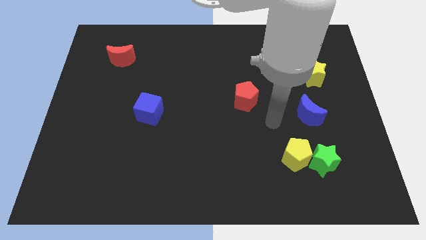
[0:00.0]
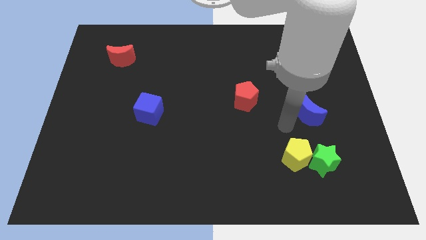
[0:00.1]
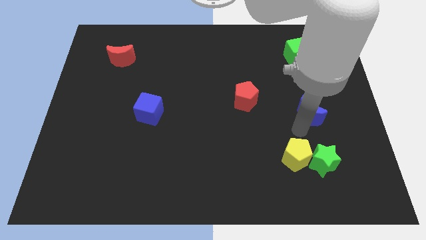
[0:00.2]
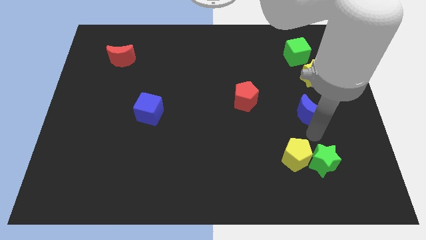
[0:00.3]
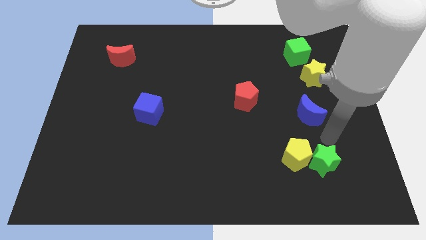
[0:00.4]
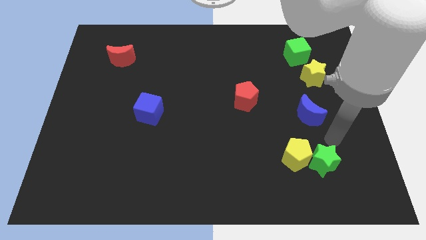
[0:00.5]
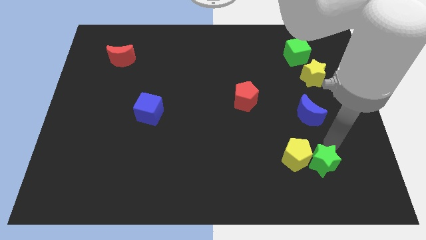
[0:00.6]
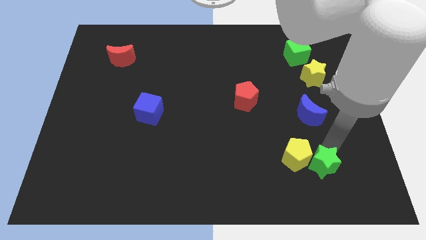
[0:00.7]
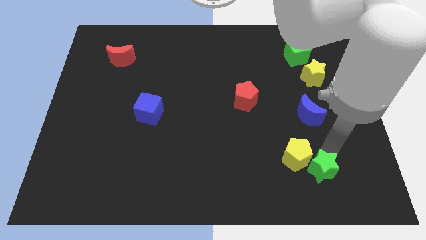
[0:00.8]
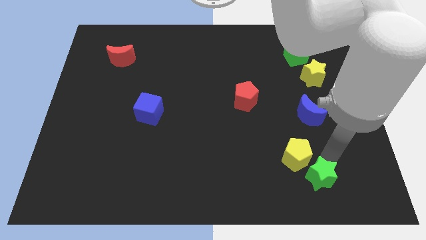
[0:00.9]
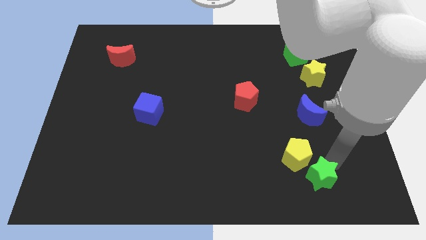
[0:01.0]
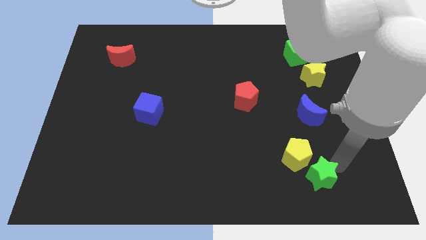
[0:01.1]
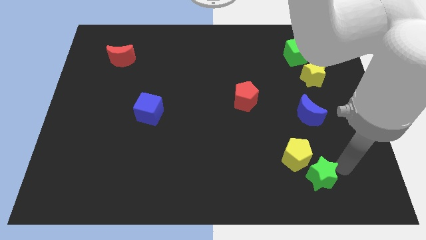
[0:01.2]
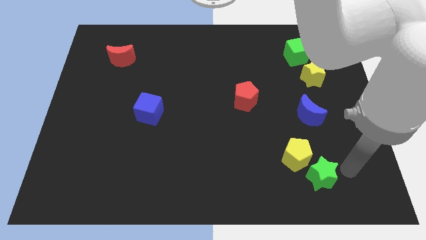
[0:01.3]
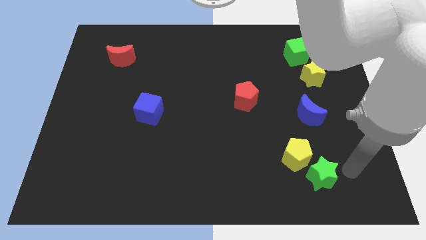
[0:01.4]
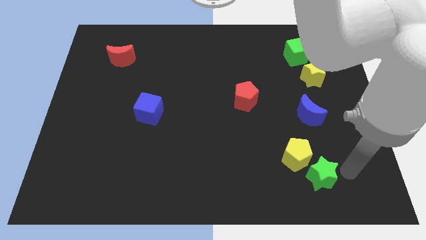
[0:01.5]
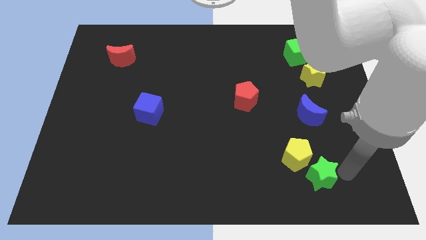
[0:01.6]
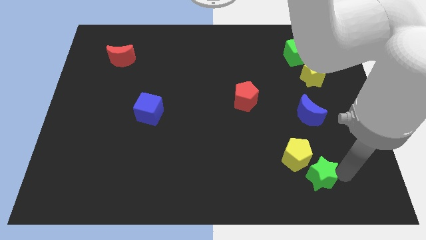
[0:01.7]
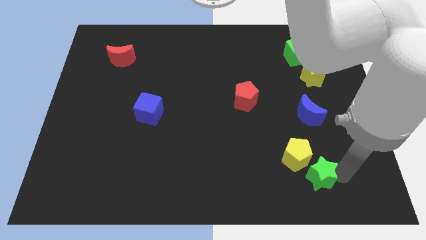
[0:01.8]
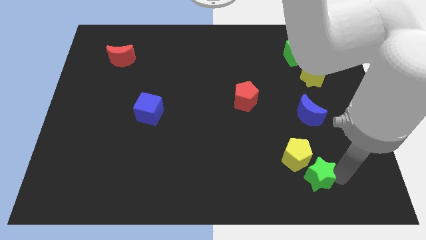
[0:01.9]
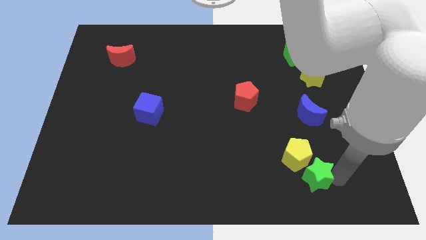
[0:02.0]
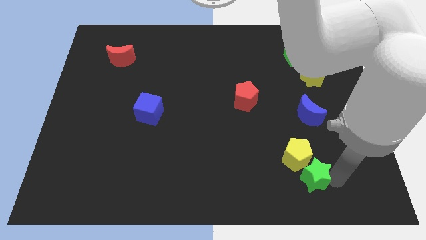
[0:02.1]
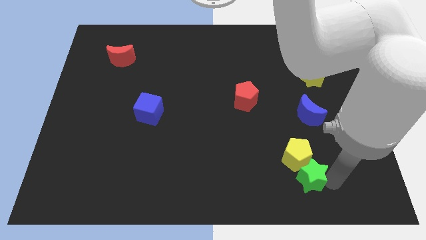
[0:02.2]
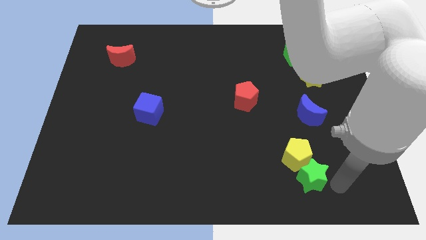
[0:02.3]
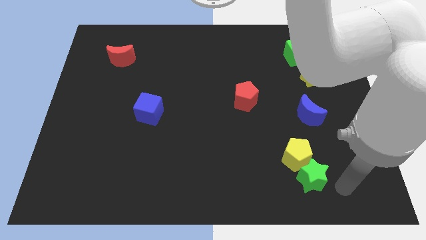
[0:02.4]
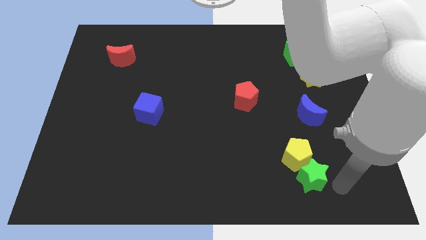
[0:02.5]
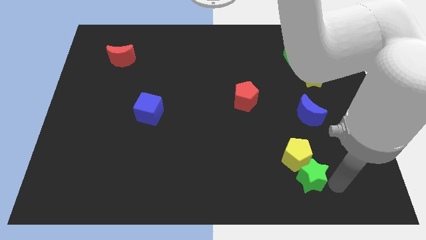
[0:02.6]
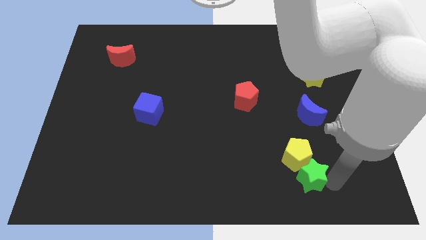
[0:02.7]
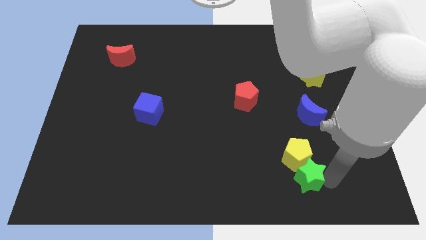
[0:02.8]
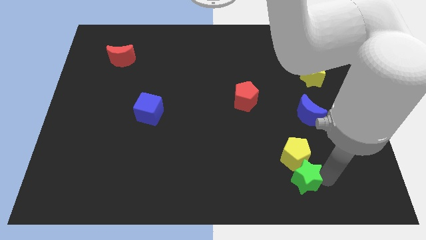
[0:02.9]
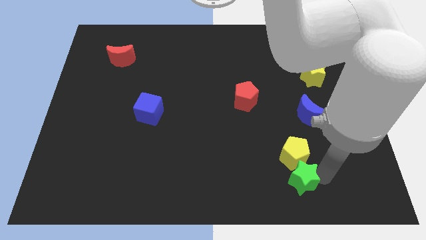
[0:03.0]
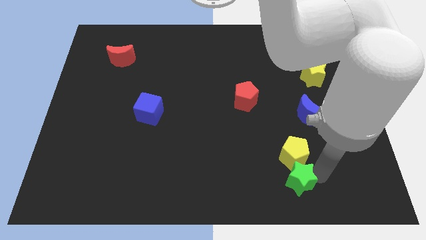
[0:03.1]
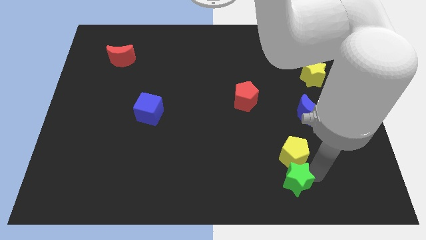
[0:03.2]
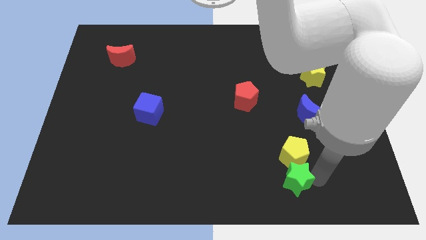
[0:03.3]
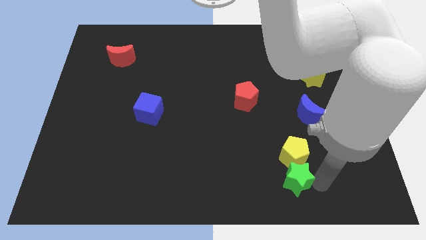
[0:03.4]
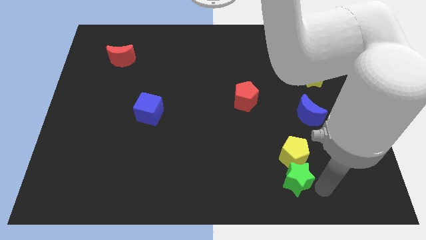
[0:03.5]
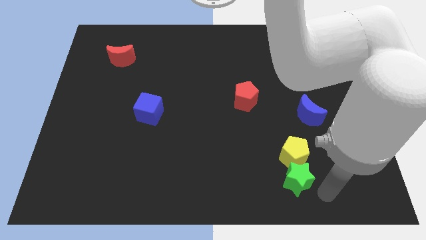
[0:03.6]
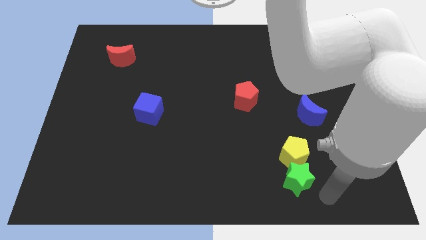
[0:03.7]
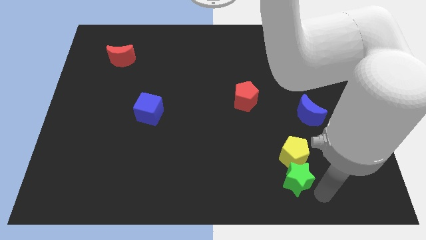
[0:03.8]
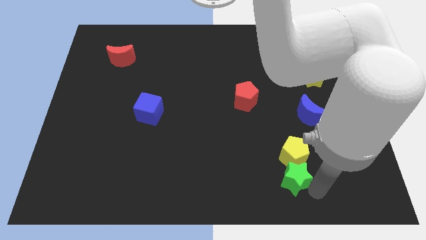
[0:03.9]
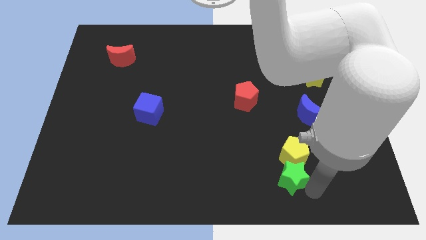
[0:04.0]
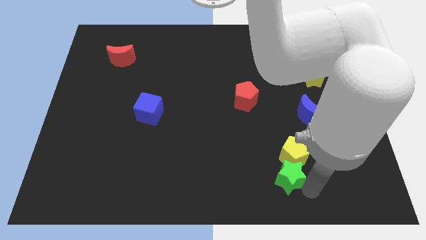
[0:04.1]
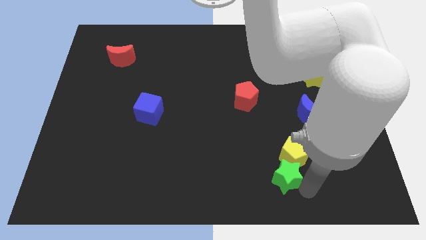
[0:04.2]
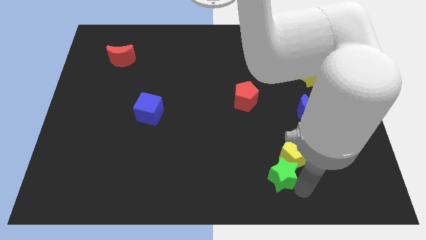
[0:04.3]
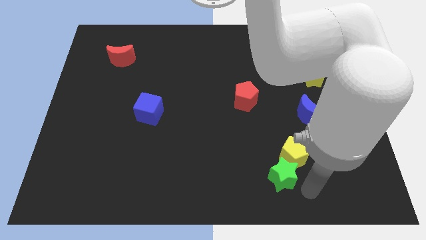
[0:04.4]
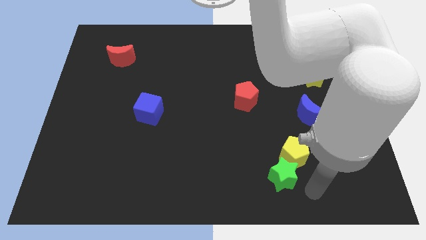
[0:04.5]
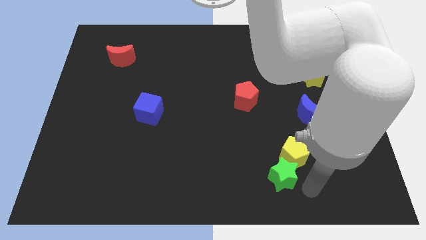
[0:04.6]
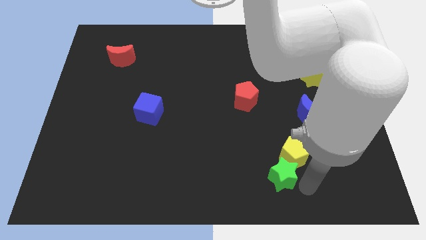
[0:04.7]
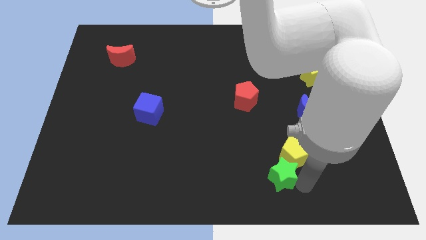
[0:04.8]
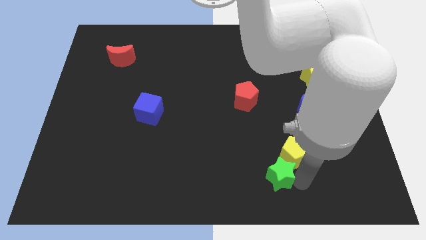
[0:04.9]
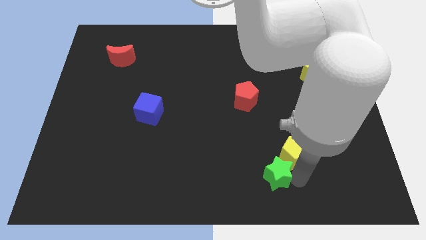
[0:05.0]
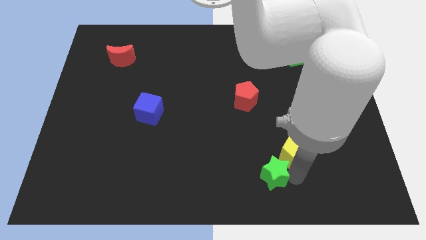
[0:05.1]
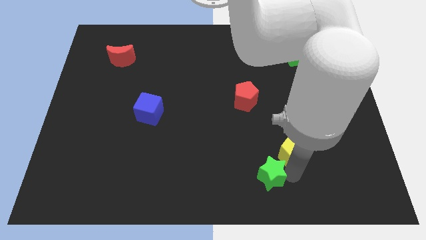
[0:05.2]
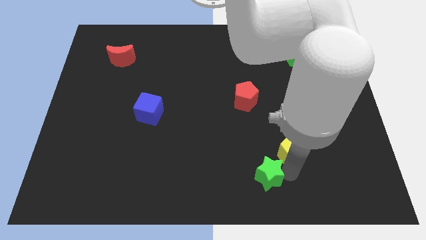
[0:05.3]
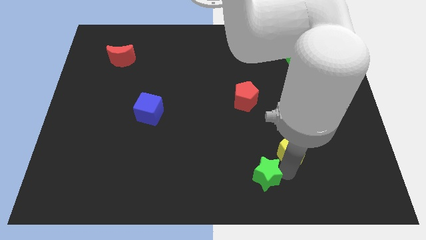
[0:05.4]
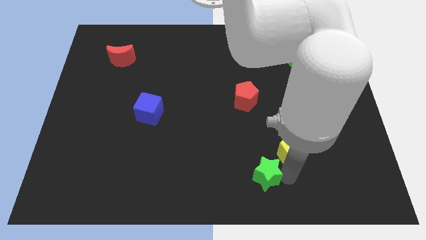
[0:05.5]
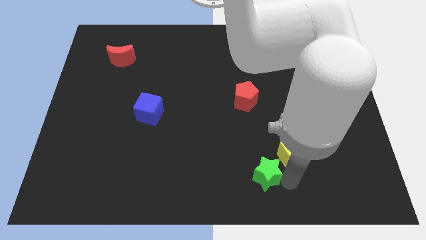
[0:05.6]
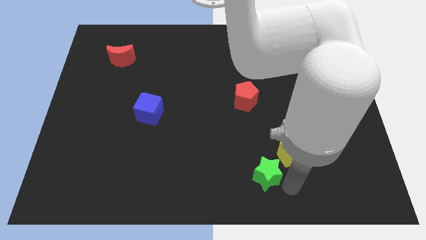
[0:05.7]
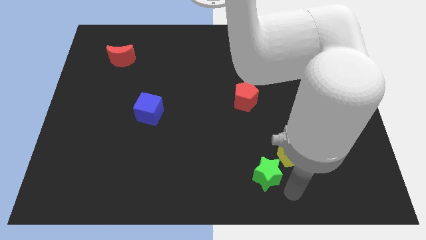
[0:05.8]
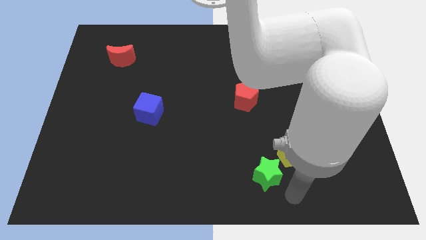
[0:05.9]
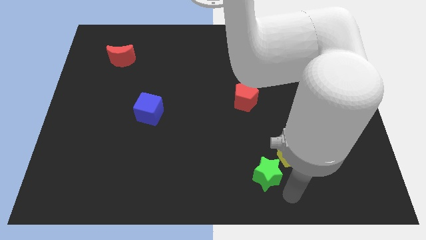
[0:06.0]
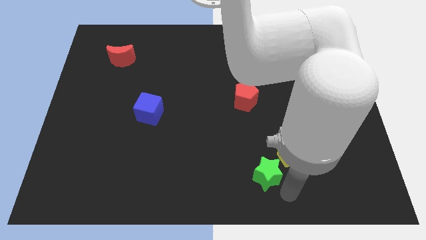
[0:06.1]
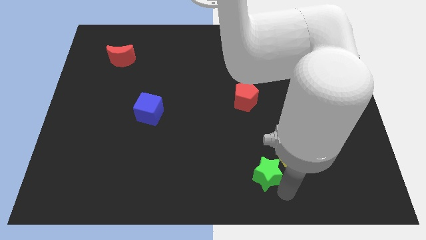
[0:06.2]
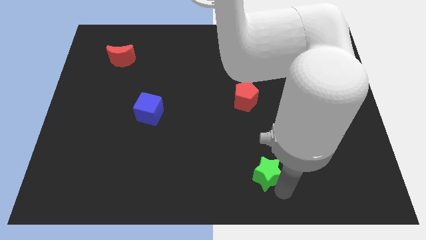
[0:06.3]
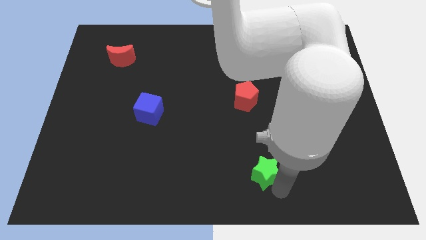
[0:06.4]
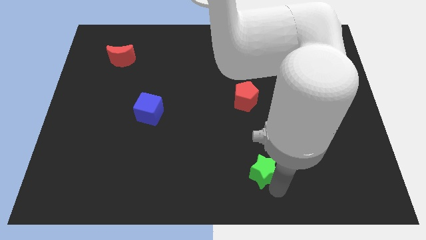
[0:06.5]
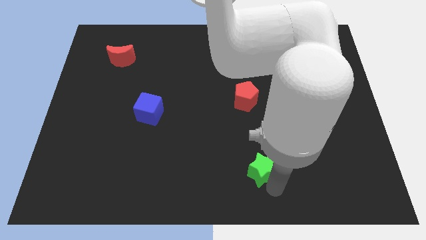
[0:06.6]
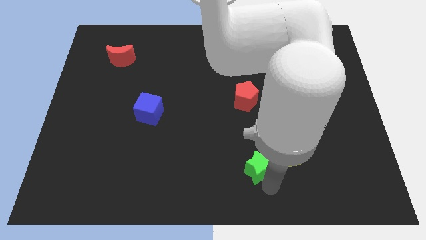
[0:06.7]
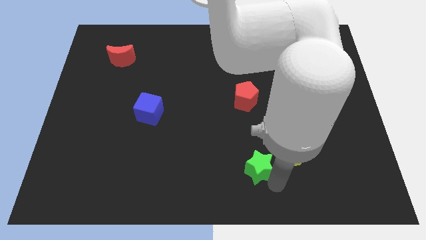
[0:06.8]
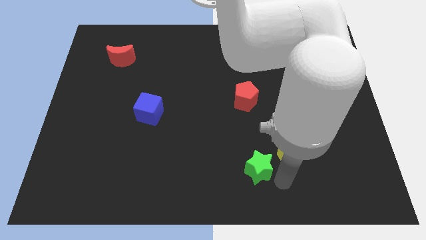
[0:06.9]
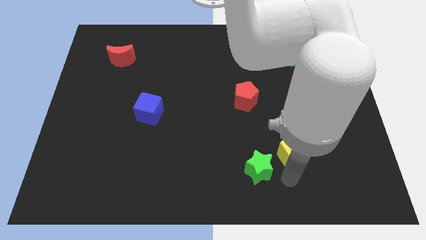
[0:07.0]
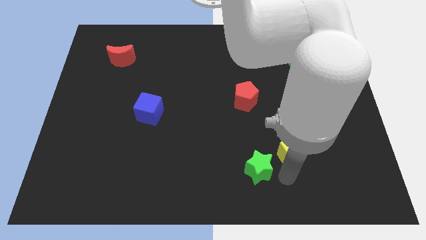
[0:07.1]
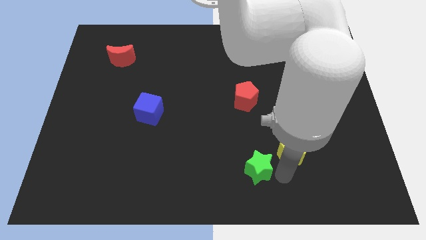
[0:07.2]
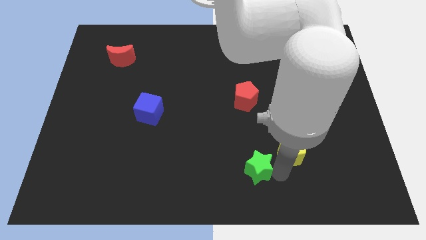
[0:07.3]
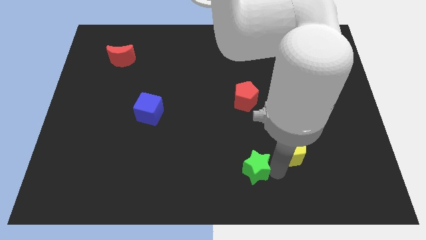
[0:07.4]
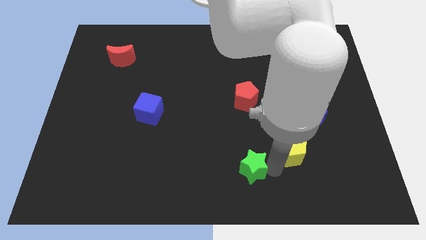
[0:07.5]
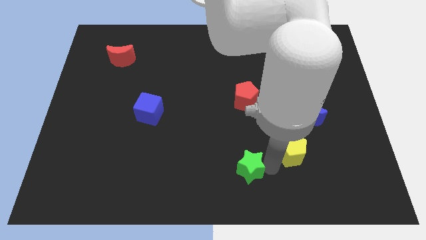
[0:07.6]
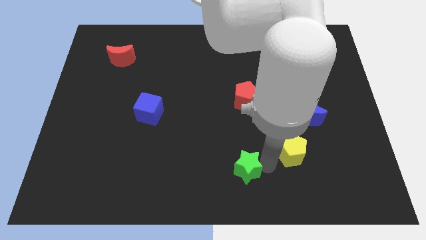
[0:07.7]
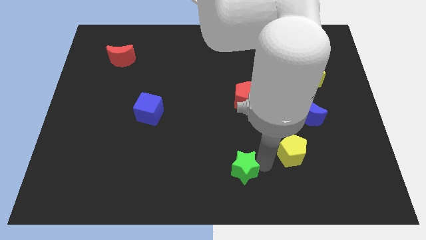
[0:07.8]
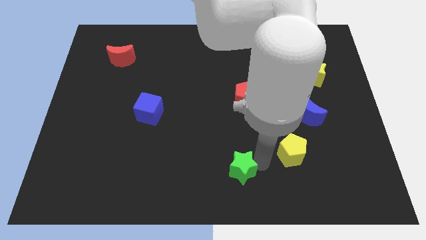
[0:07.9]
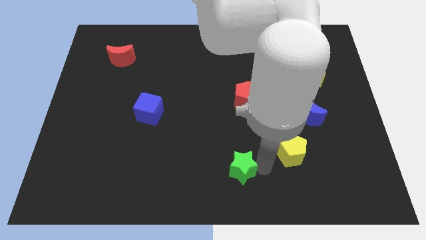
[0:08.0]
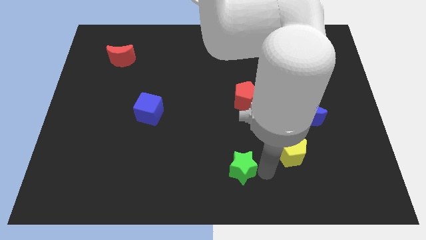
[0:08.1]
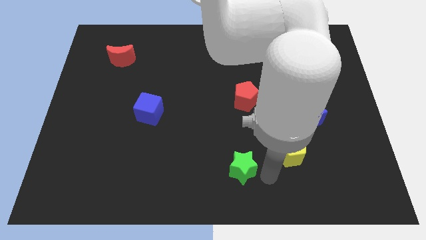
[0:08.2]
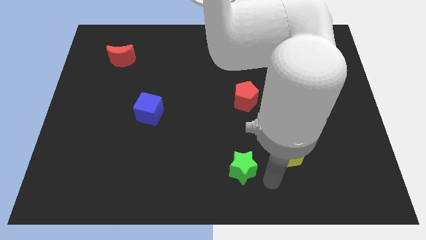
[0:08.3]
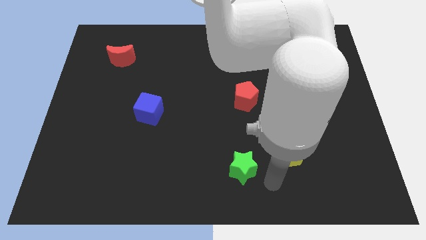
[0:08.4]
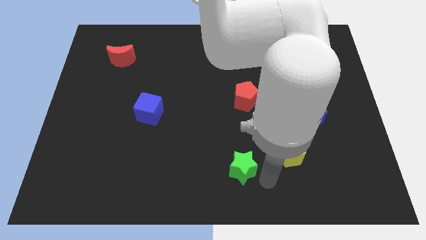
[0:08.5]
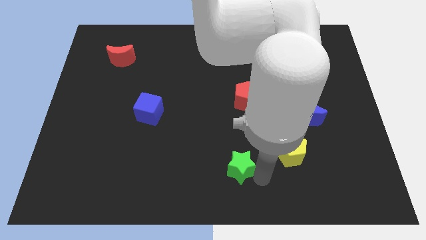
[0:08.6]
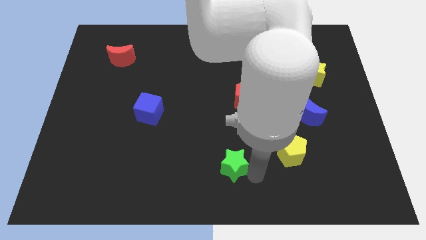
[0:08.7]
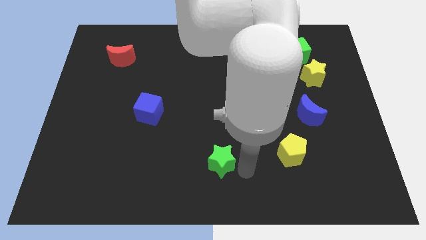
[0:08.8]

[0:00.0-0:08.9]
move the green star left
